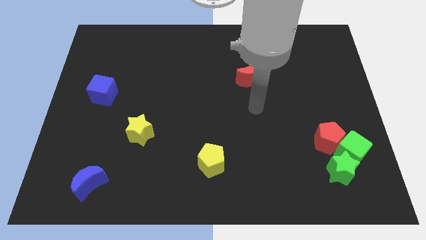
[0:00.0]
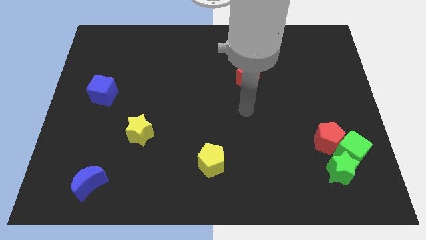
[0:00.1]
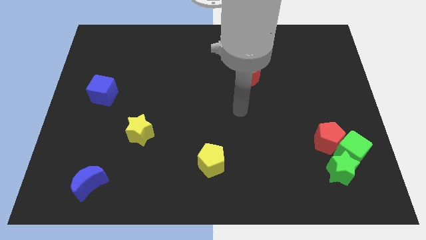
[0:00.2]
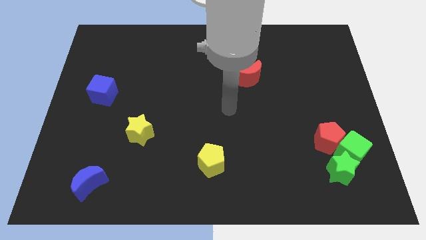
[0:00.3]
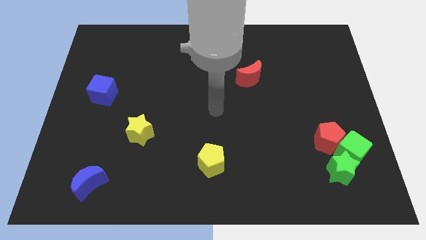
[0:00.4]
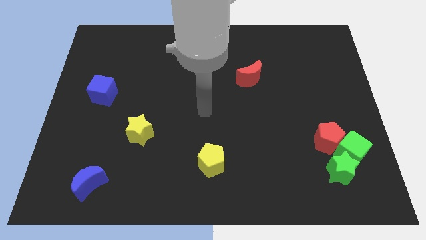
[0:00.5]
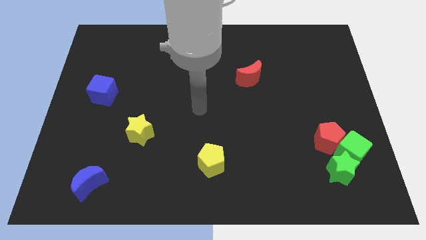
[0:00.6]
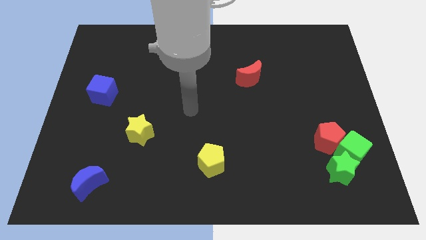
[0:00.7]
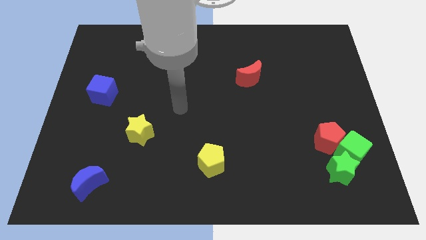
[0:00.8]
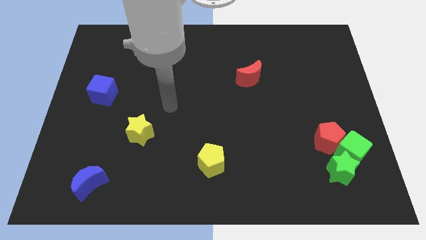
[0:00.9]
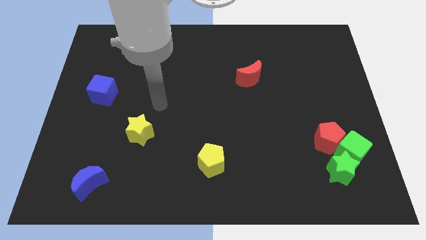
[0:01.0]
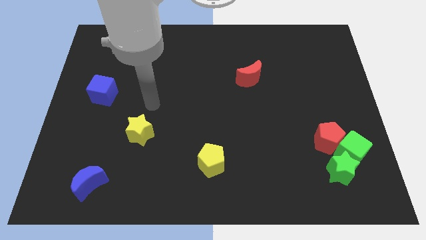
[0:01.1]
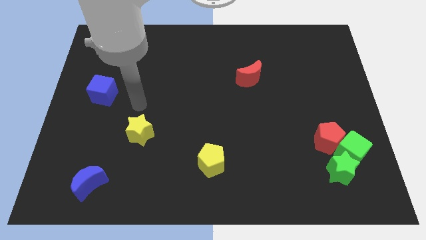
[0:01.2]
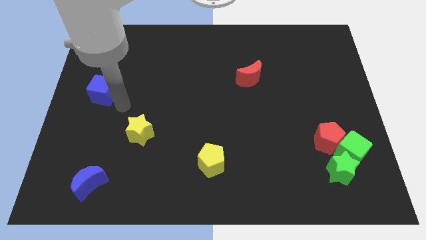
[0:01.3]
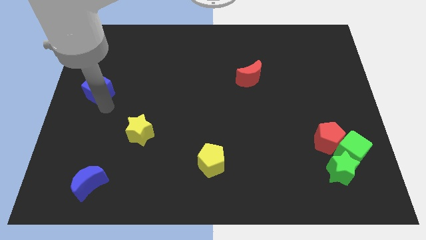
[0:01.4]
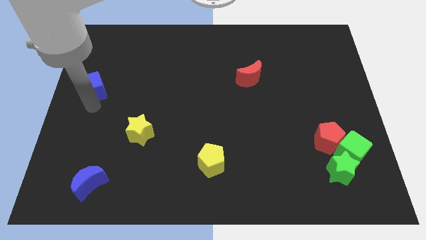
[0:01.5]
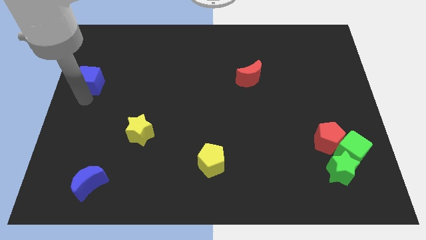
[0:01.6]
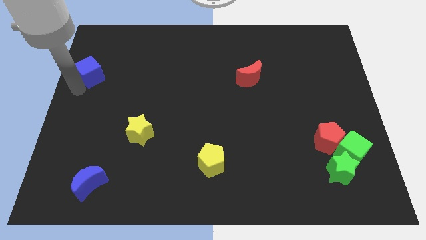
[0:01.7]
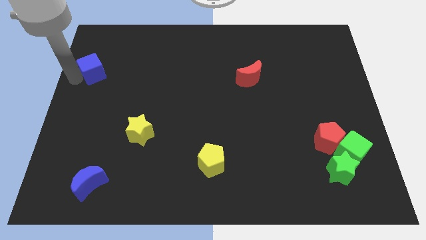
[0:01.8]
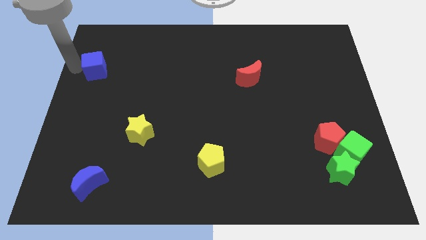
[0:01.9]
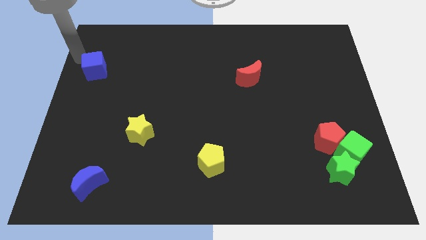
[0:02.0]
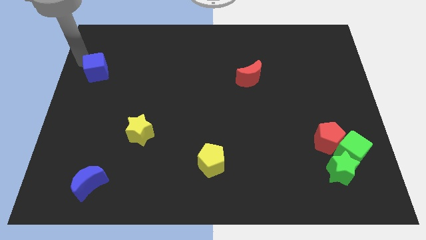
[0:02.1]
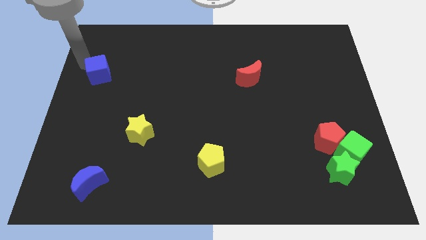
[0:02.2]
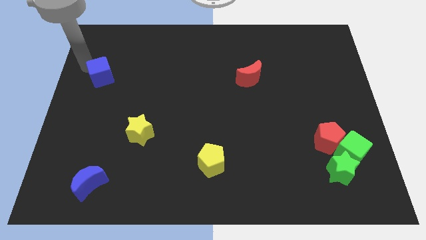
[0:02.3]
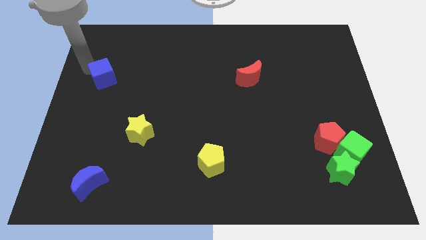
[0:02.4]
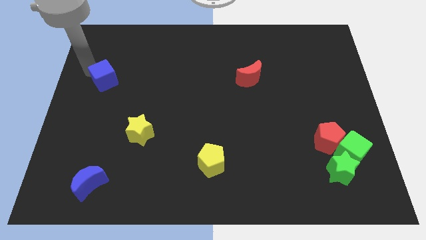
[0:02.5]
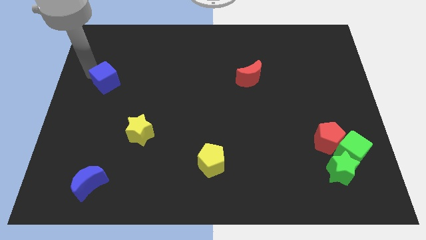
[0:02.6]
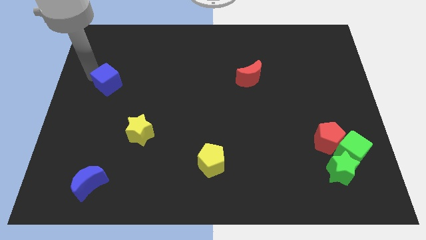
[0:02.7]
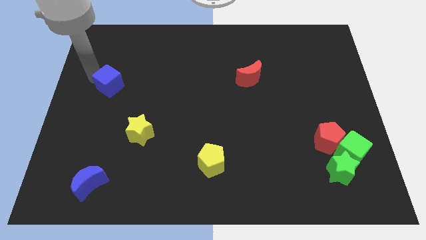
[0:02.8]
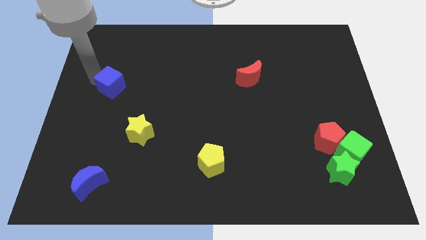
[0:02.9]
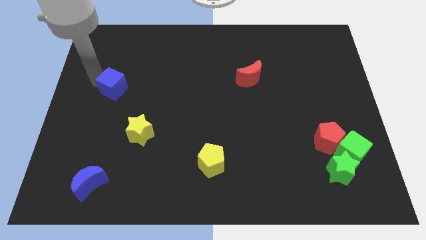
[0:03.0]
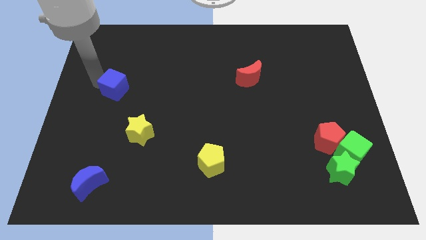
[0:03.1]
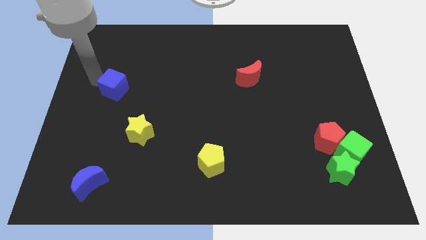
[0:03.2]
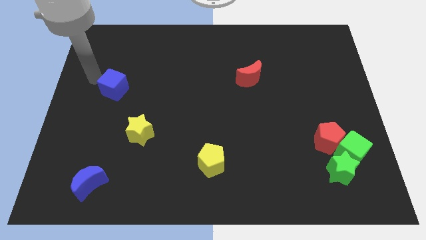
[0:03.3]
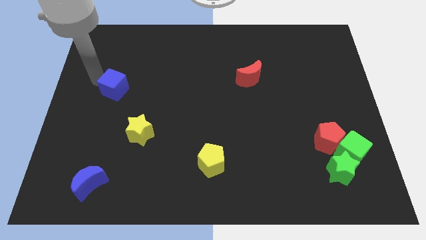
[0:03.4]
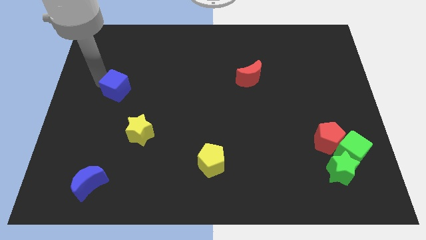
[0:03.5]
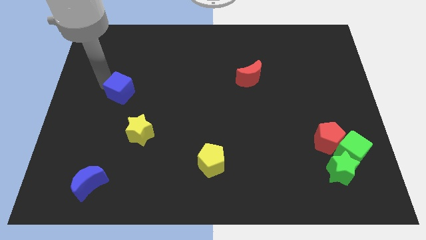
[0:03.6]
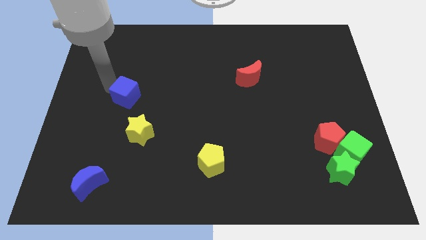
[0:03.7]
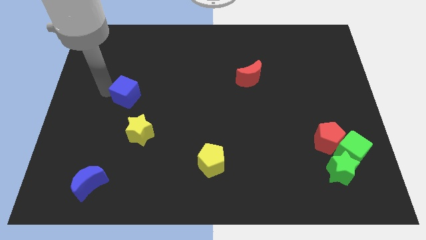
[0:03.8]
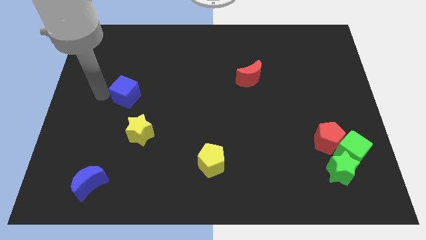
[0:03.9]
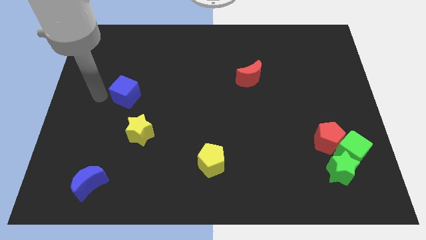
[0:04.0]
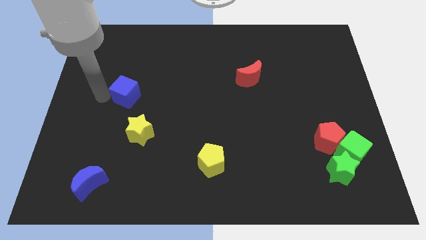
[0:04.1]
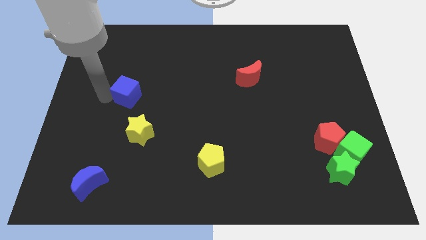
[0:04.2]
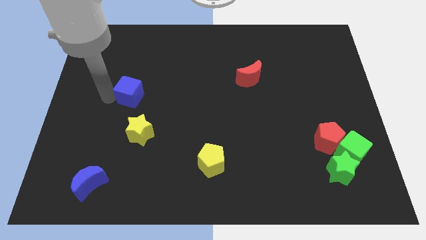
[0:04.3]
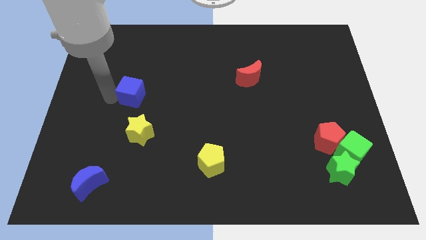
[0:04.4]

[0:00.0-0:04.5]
move the blue cube somewhat to the right

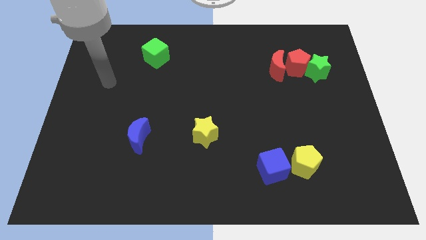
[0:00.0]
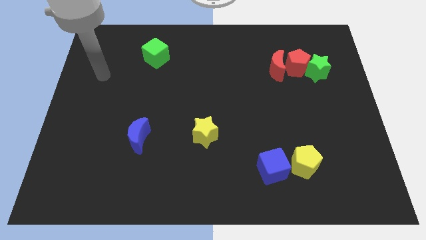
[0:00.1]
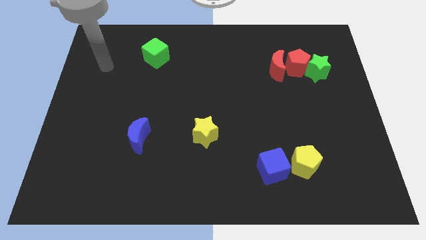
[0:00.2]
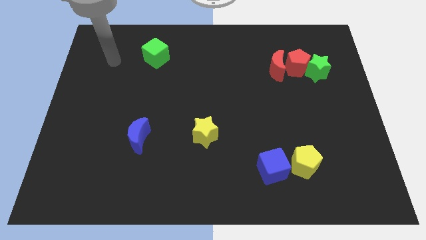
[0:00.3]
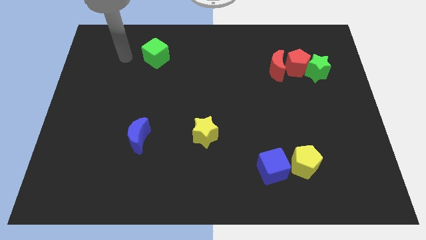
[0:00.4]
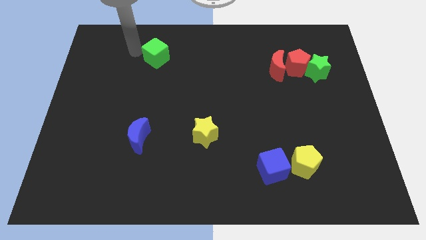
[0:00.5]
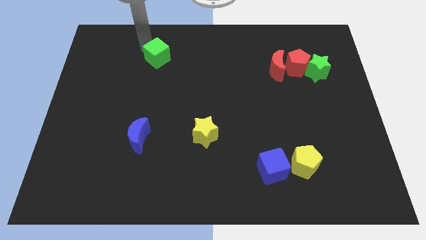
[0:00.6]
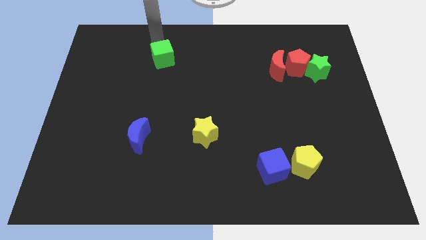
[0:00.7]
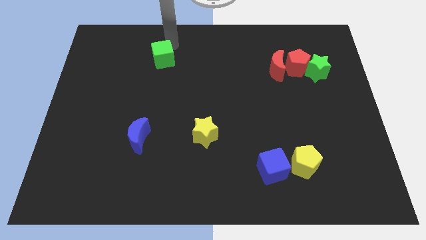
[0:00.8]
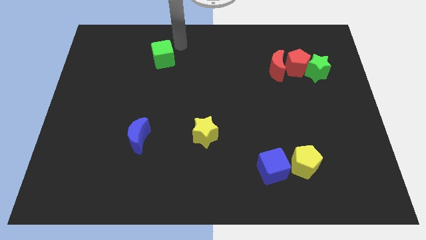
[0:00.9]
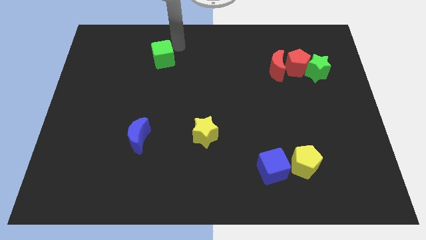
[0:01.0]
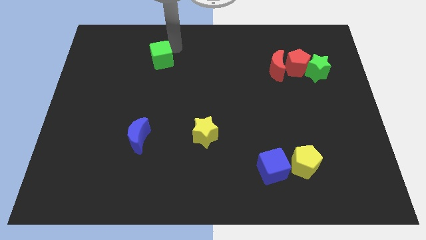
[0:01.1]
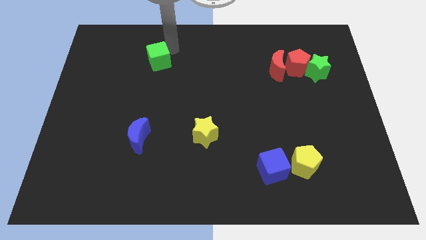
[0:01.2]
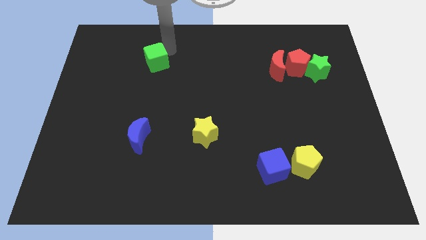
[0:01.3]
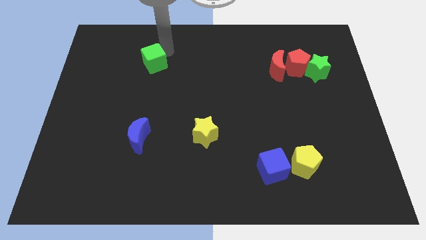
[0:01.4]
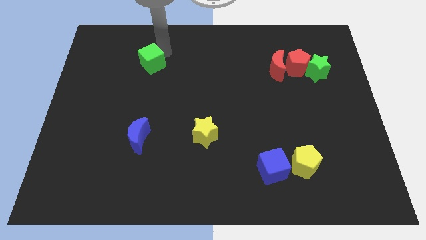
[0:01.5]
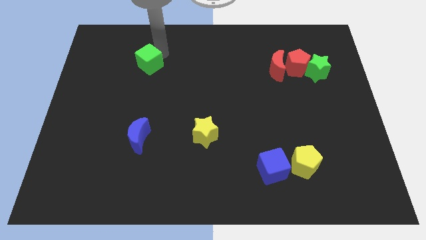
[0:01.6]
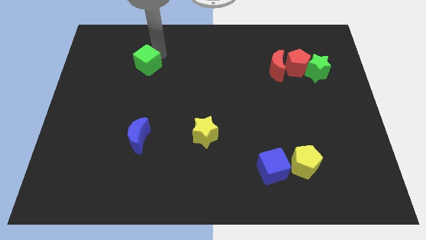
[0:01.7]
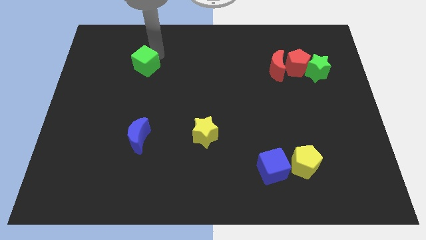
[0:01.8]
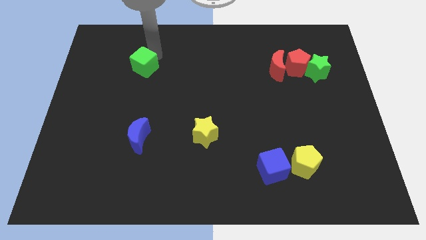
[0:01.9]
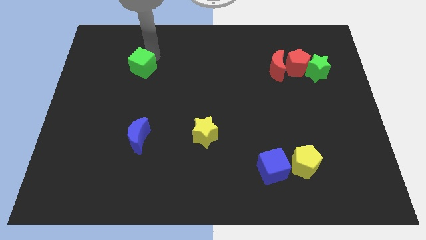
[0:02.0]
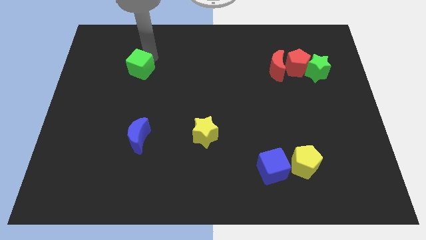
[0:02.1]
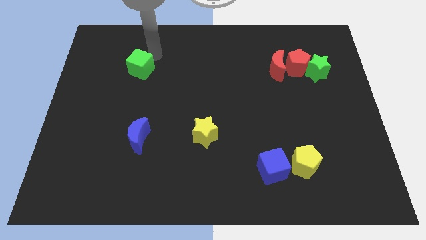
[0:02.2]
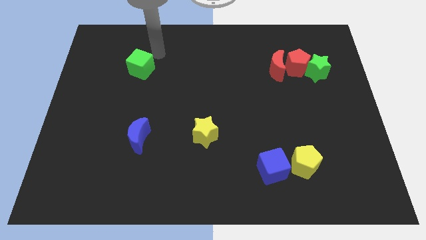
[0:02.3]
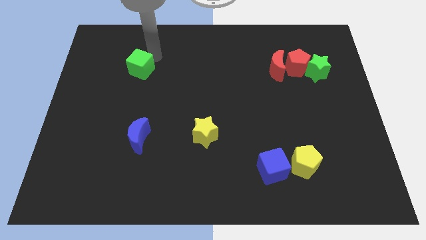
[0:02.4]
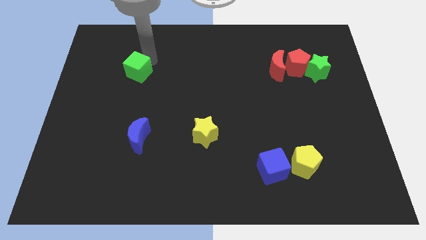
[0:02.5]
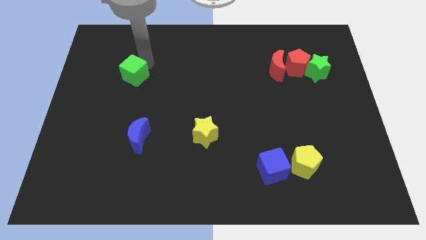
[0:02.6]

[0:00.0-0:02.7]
push the green cube a little bit downwards and to the left diagonally

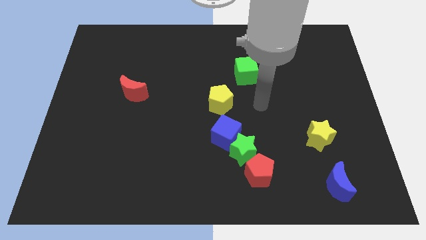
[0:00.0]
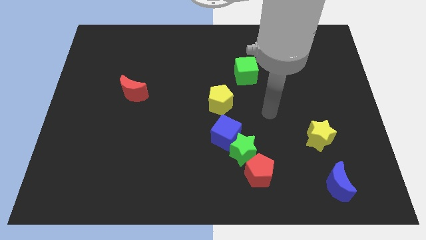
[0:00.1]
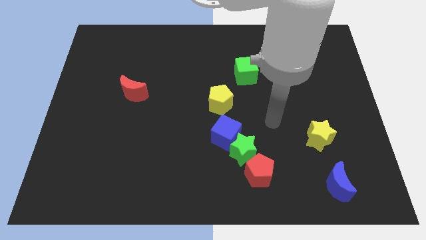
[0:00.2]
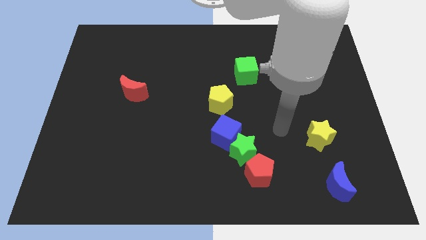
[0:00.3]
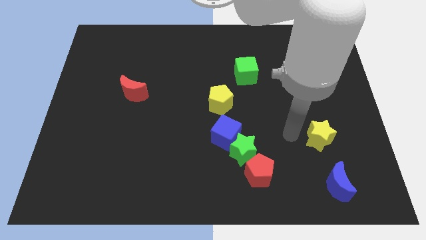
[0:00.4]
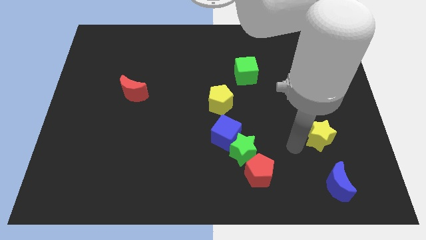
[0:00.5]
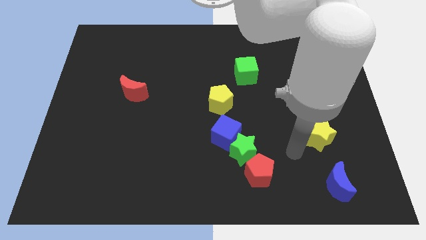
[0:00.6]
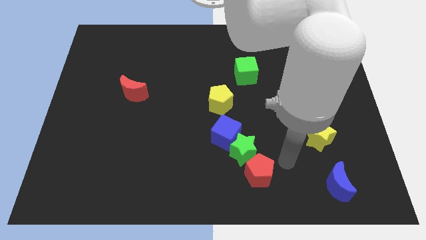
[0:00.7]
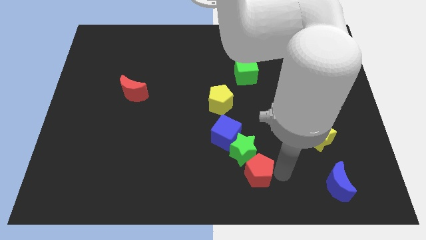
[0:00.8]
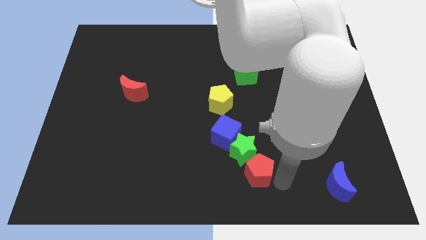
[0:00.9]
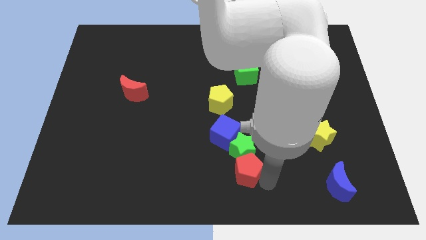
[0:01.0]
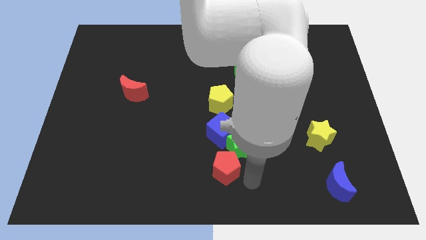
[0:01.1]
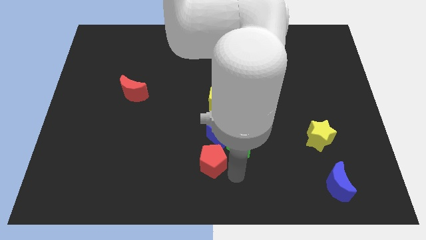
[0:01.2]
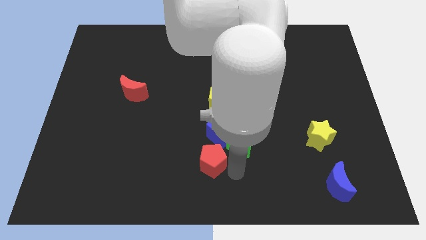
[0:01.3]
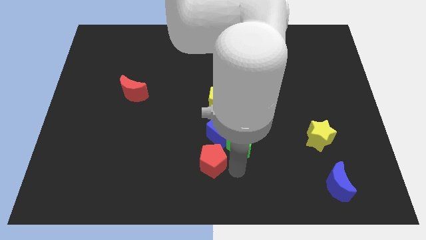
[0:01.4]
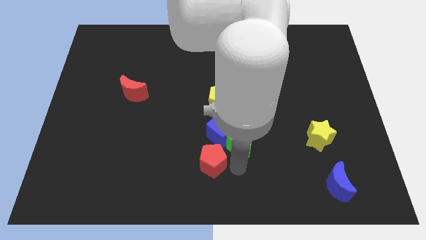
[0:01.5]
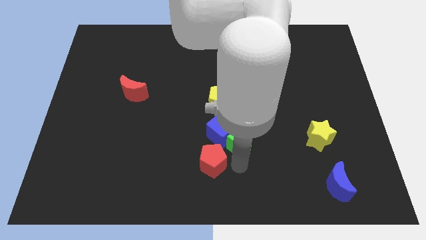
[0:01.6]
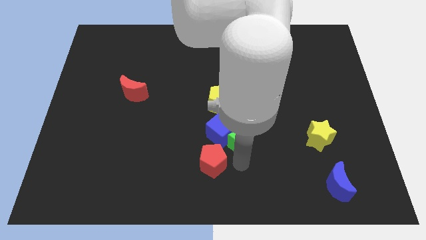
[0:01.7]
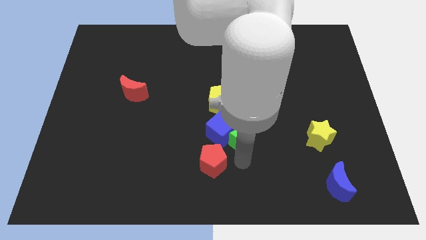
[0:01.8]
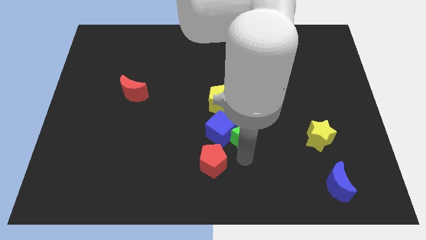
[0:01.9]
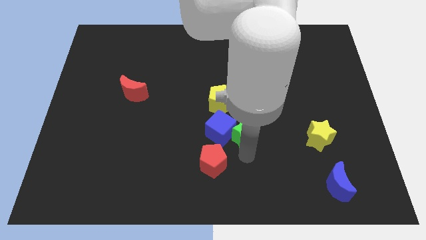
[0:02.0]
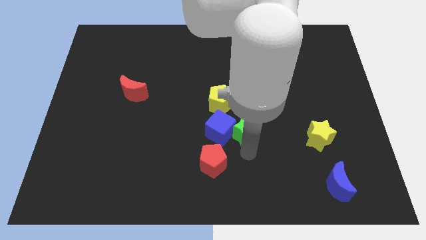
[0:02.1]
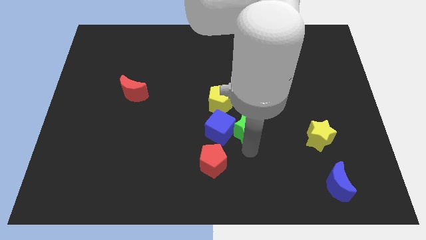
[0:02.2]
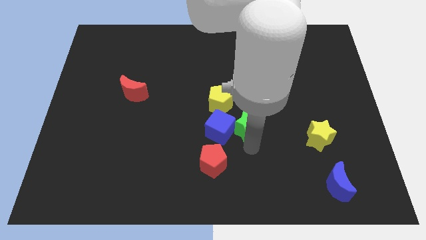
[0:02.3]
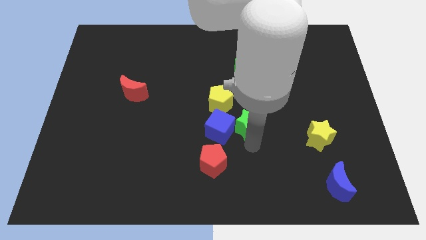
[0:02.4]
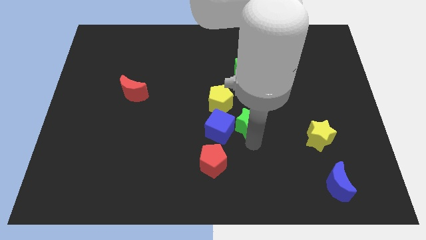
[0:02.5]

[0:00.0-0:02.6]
push the green star a little upwards
